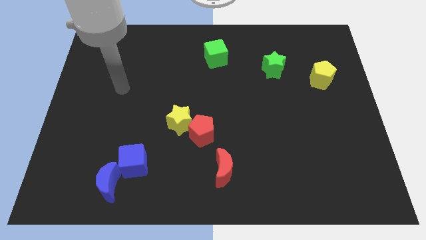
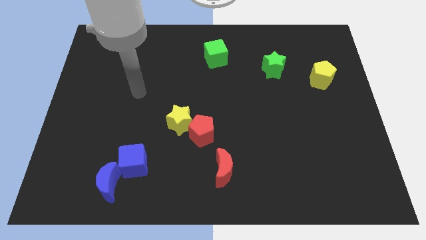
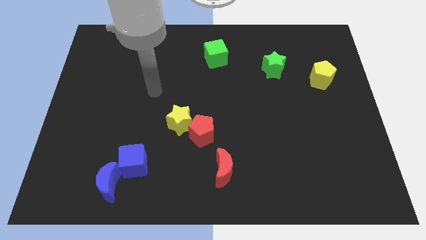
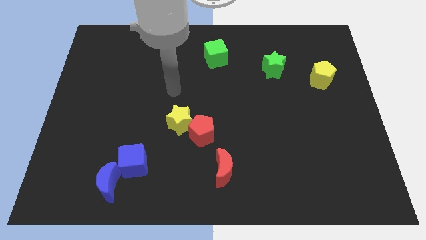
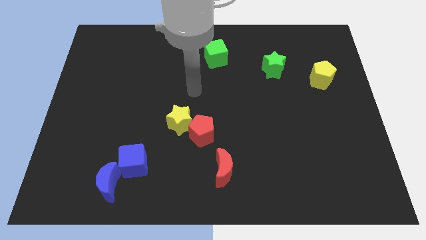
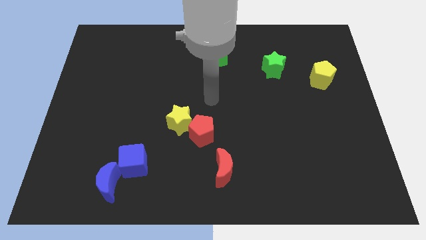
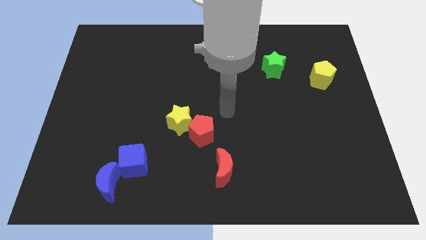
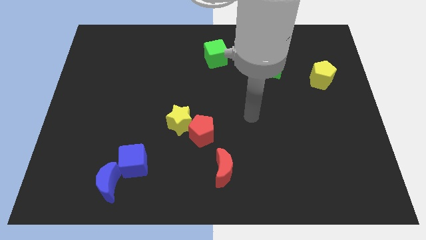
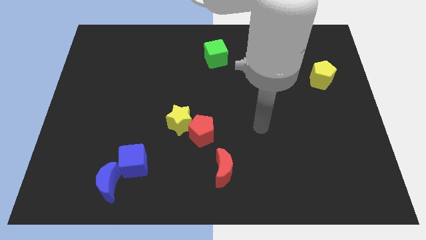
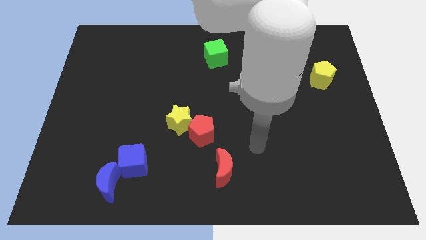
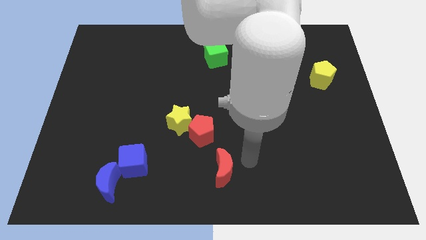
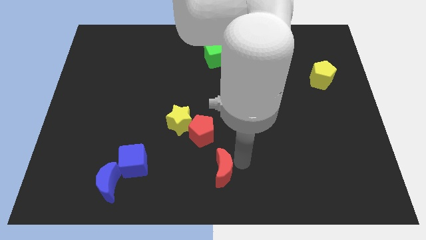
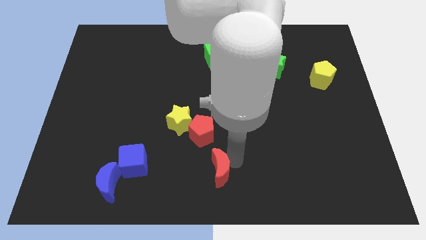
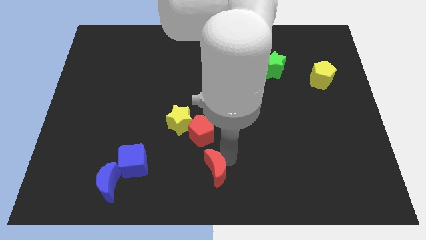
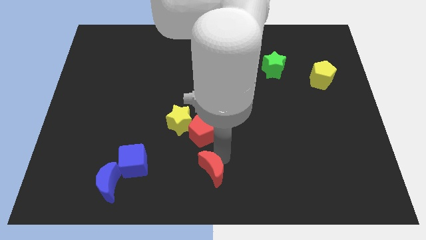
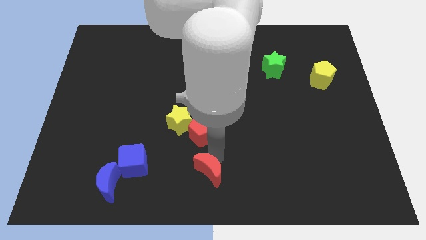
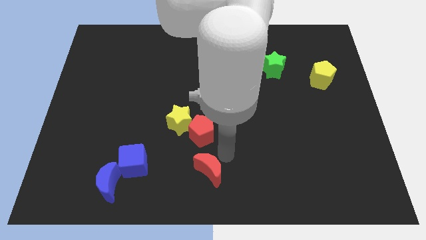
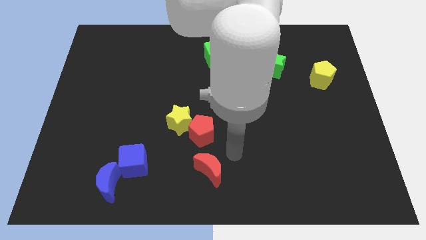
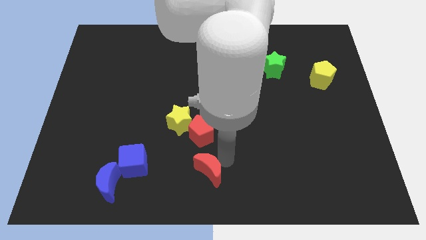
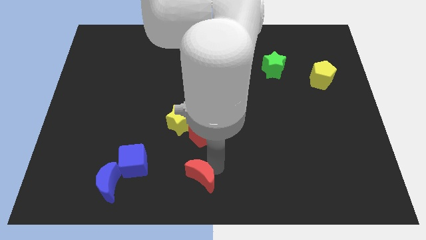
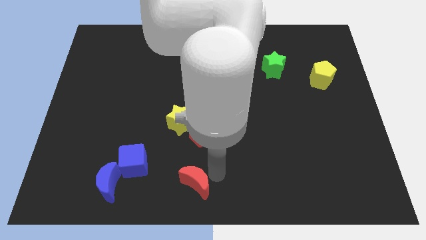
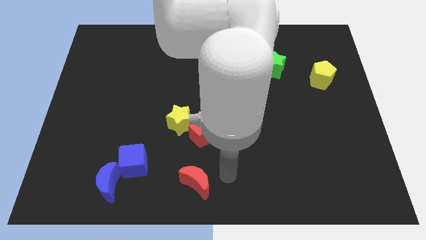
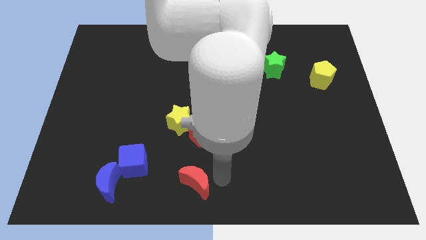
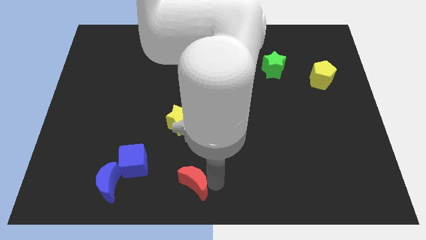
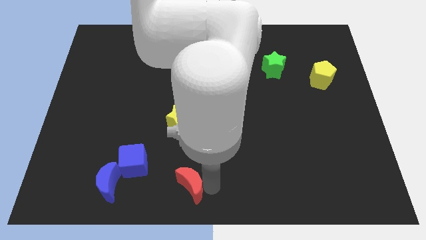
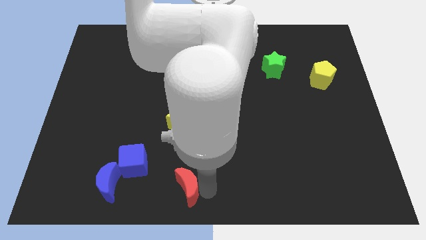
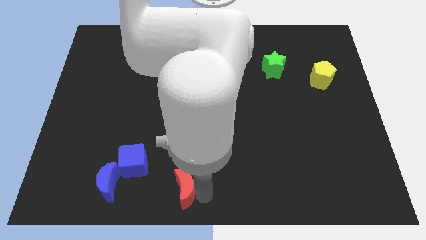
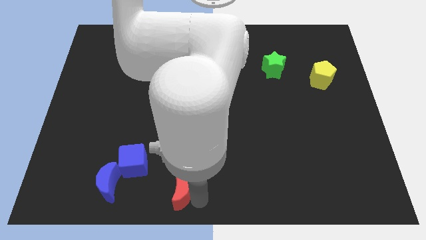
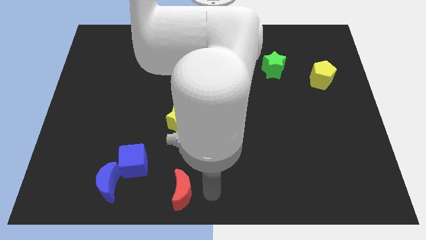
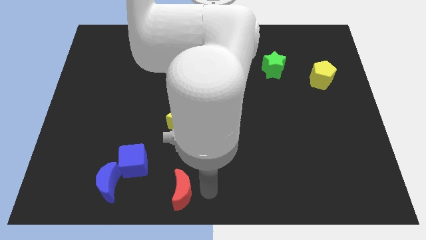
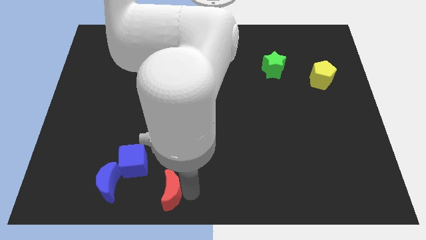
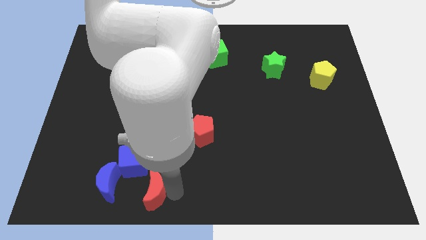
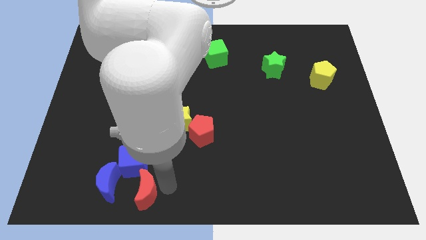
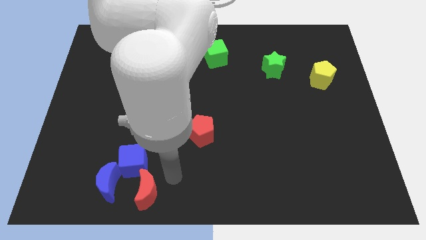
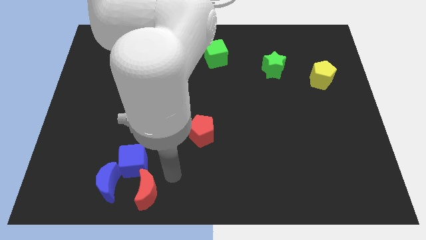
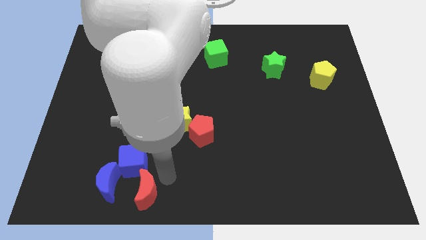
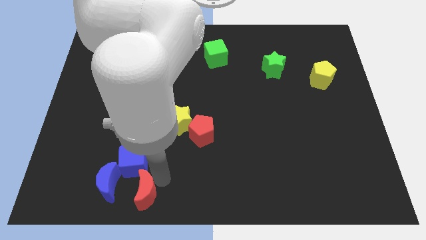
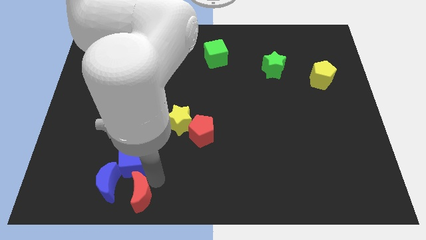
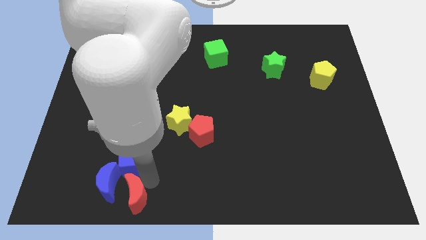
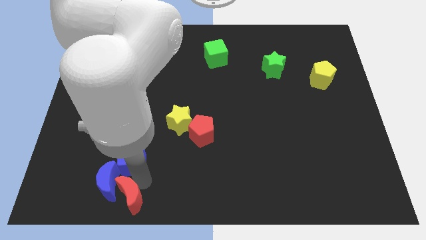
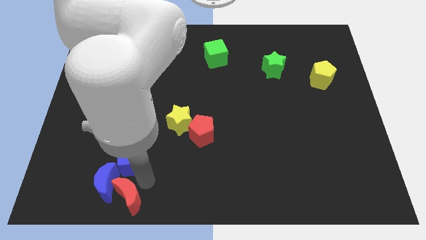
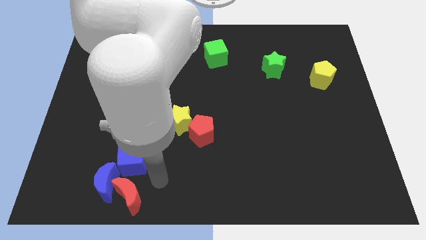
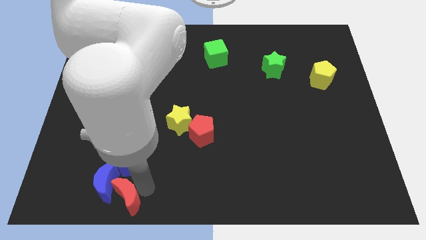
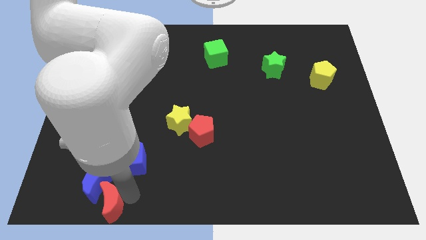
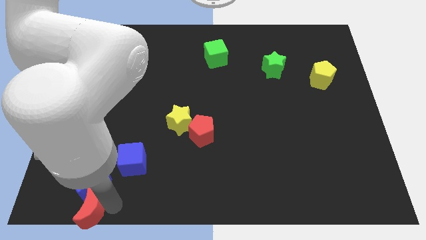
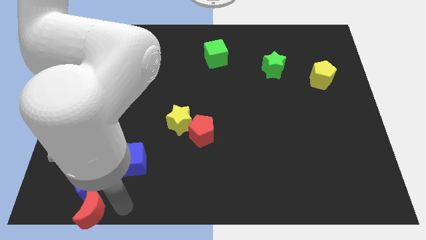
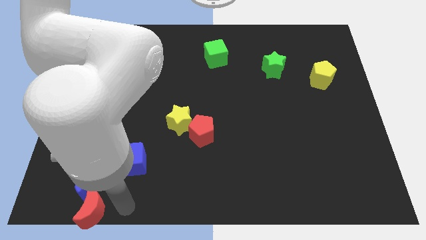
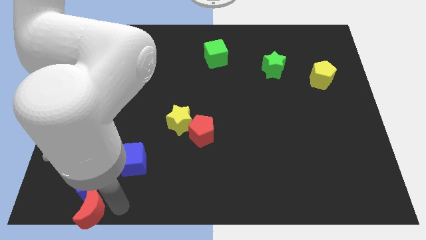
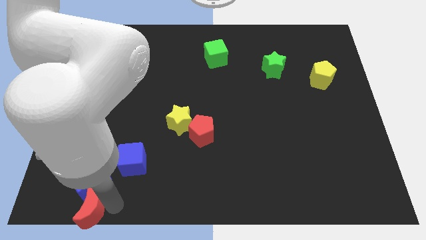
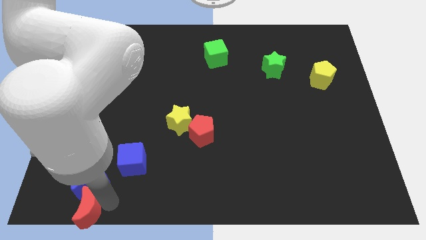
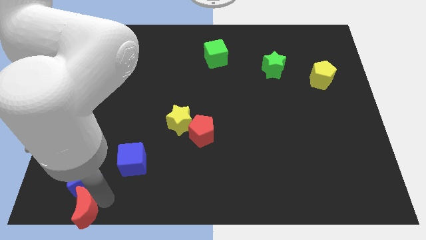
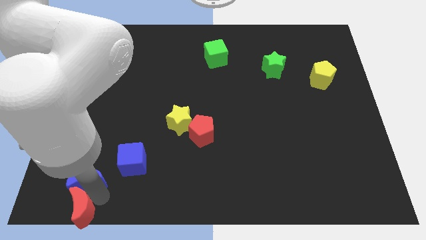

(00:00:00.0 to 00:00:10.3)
put the red moon to the bottom left corner

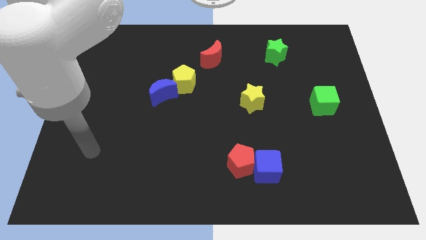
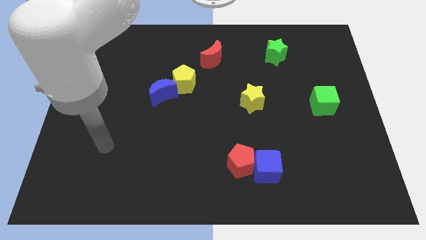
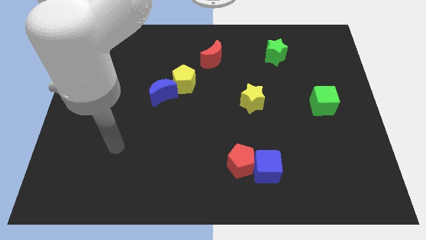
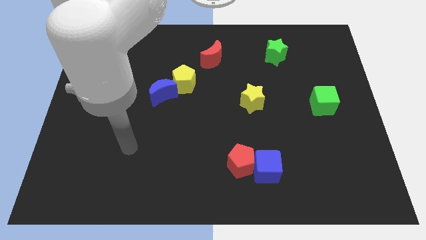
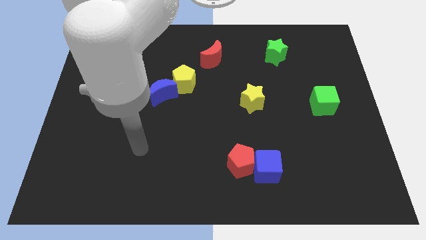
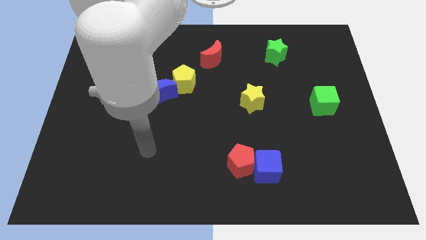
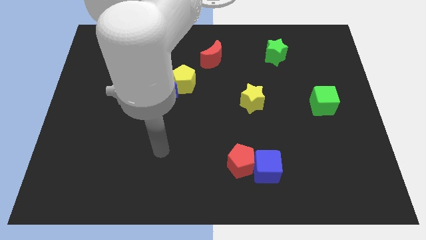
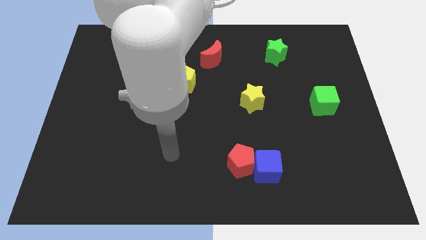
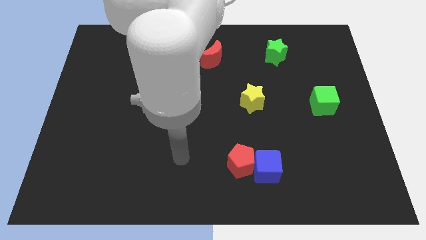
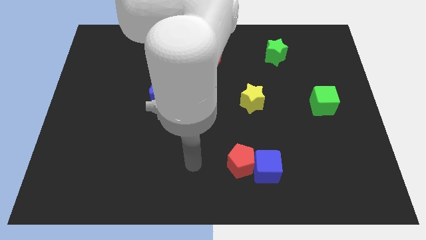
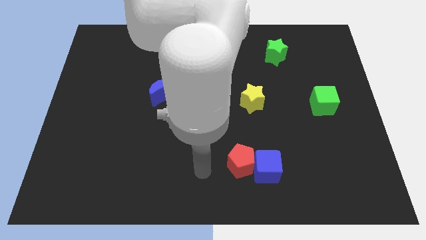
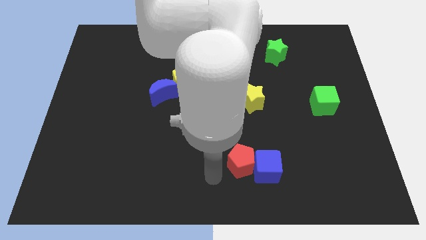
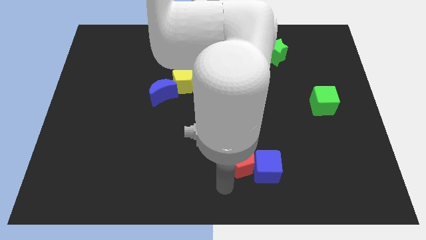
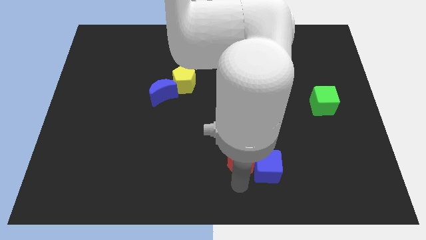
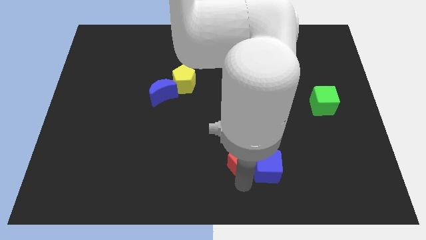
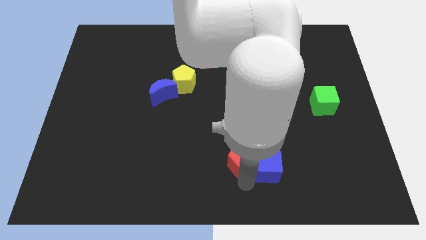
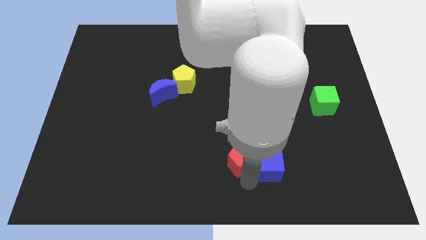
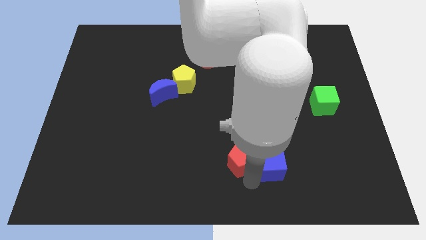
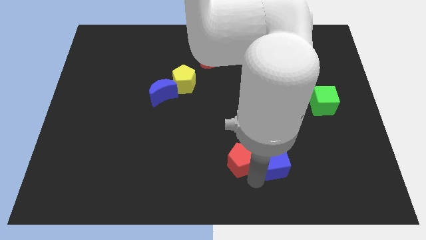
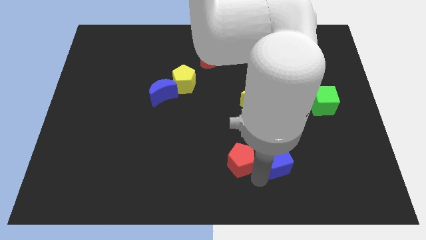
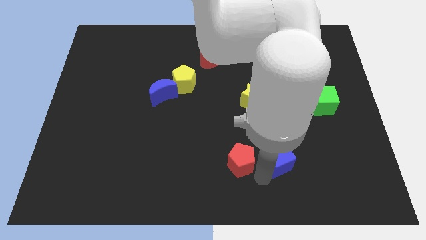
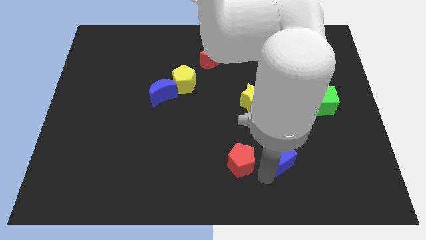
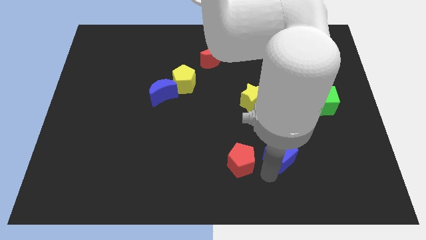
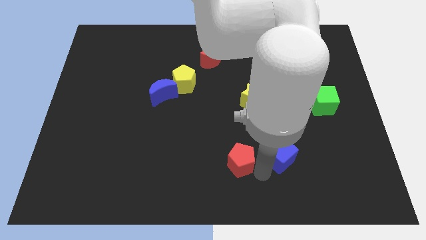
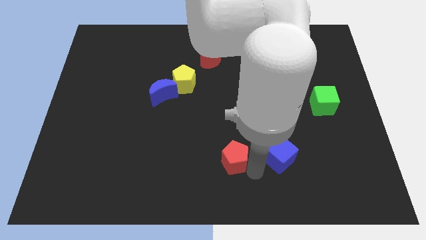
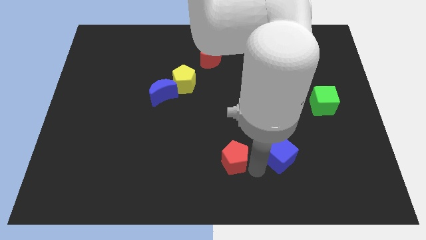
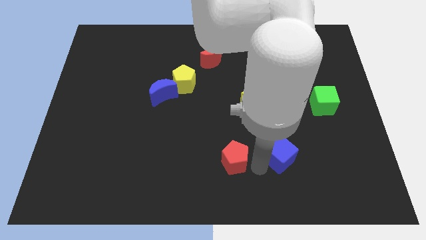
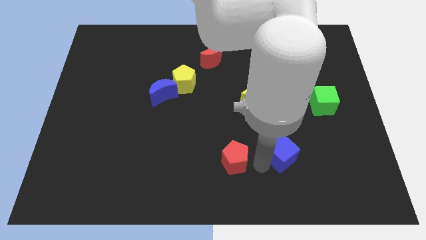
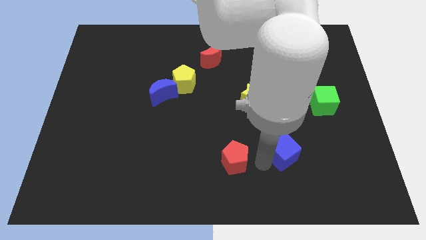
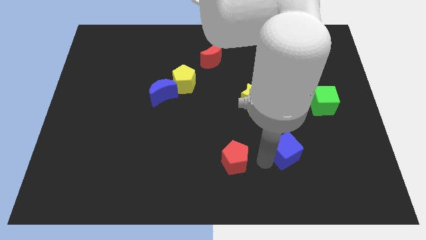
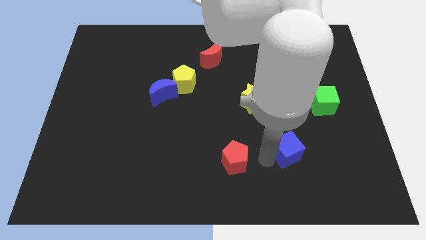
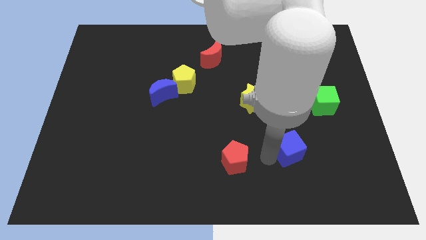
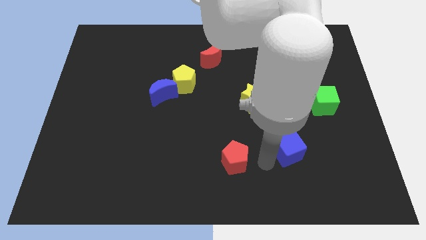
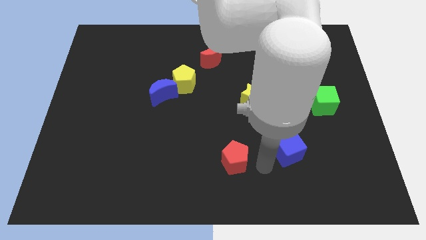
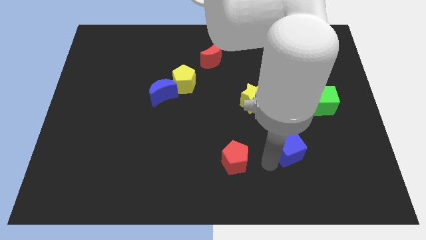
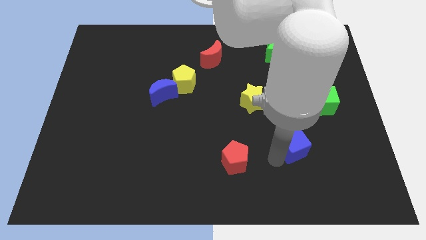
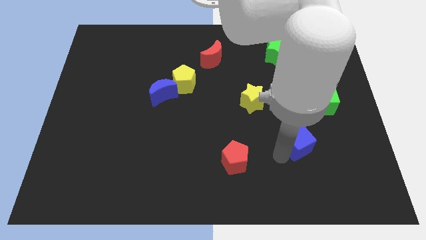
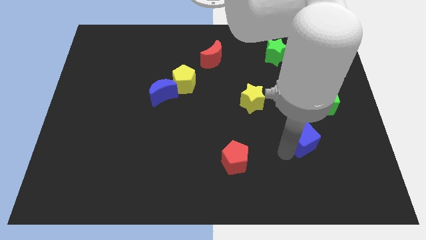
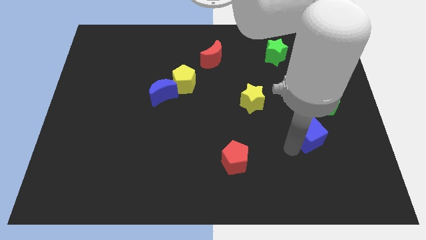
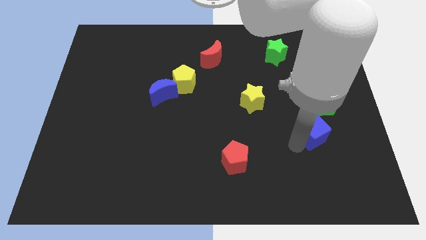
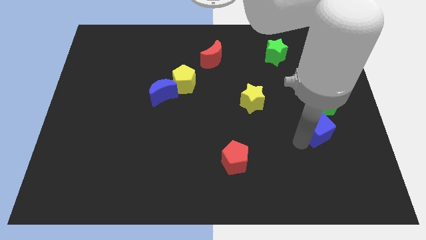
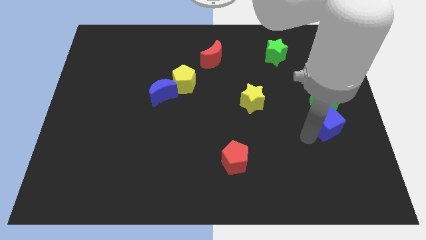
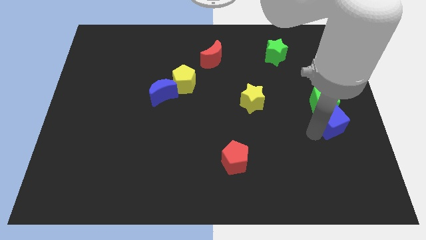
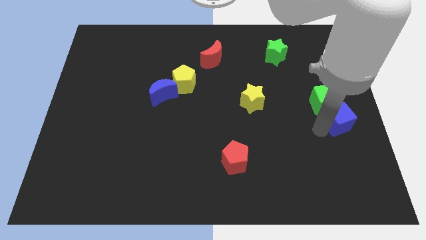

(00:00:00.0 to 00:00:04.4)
put the blue cube to the right side
